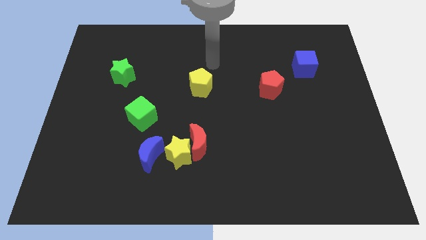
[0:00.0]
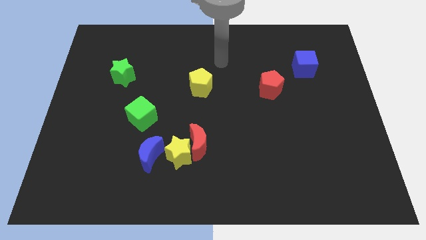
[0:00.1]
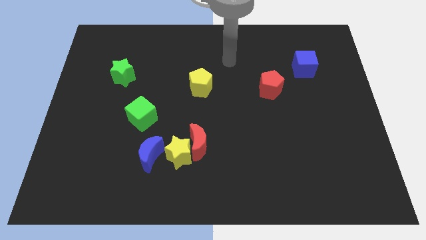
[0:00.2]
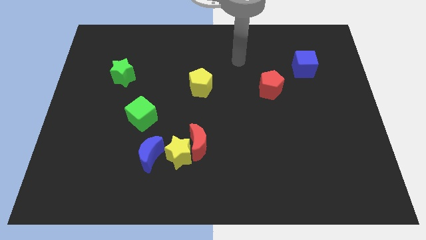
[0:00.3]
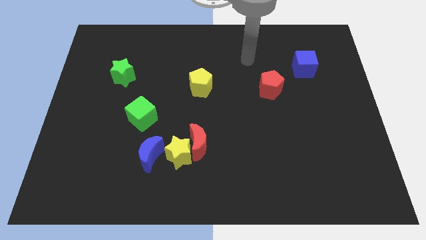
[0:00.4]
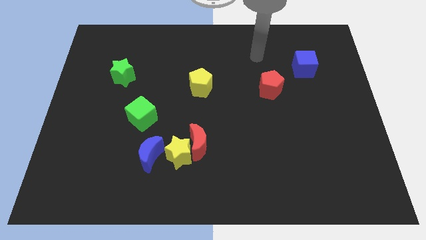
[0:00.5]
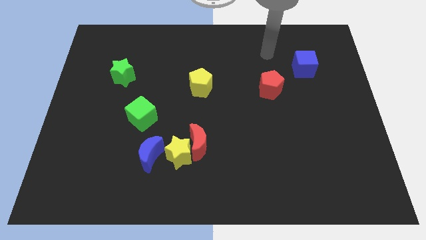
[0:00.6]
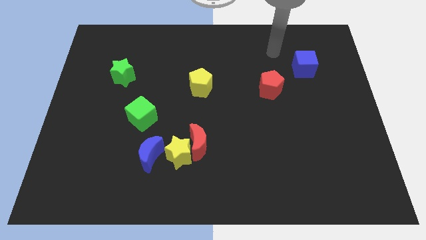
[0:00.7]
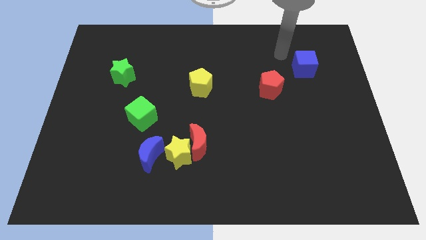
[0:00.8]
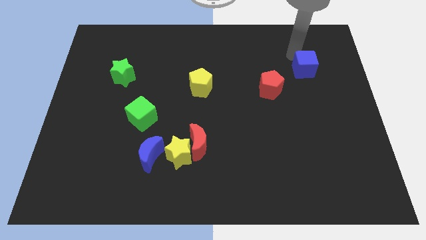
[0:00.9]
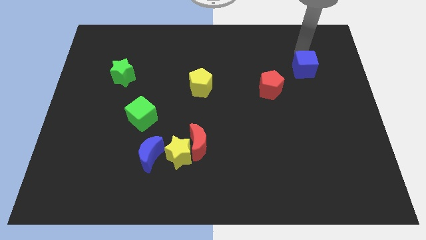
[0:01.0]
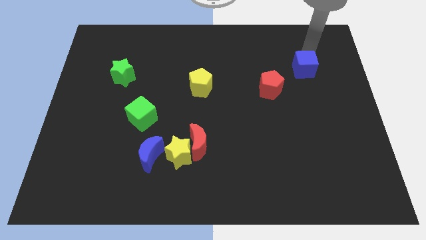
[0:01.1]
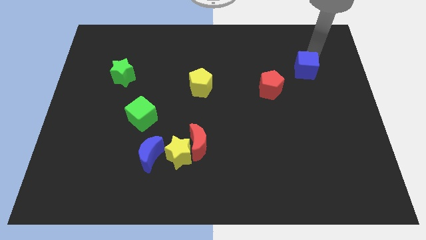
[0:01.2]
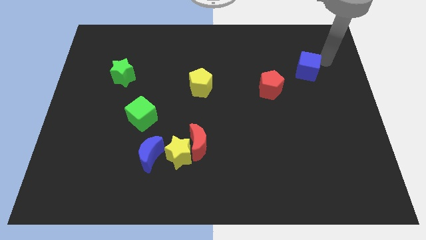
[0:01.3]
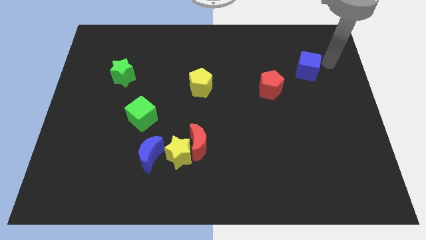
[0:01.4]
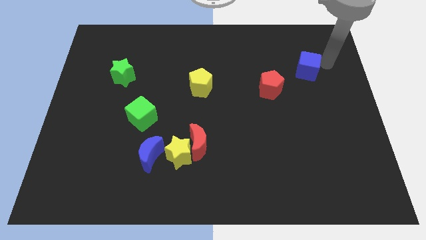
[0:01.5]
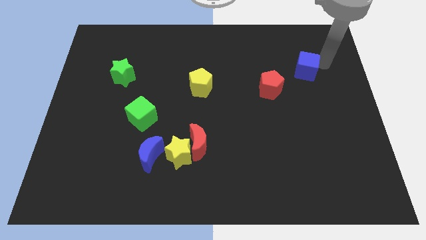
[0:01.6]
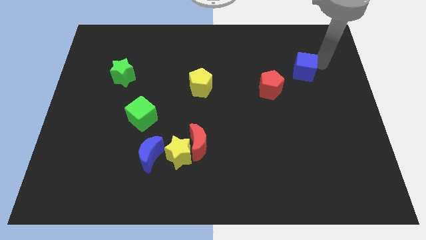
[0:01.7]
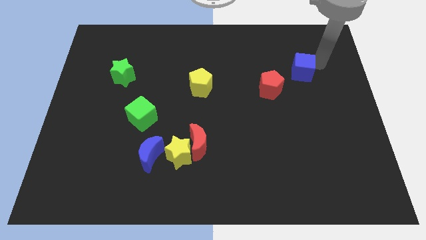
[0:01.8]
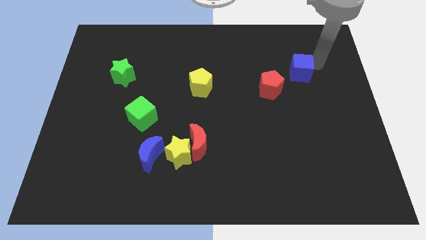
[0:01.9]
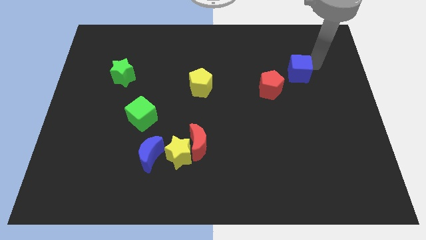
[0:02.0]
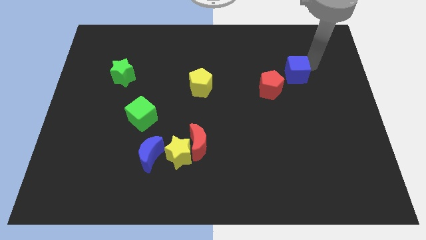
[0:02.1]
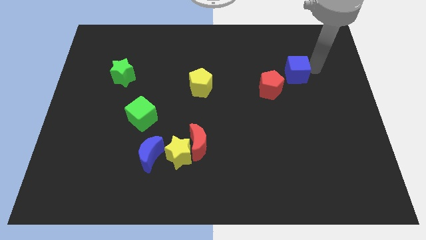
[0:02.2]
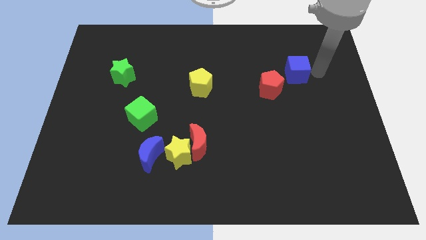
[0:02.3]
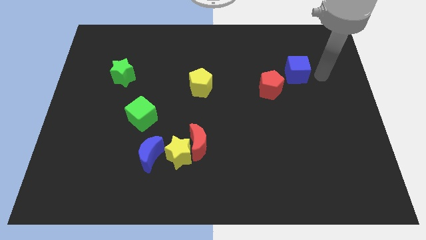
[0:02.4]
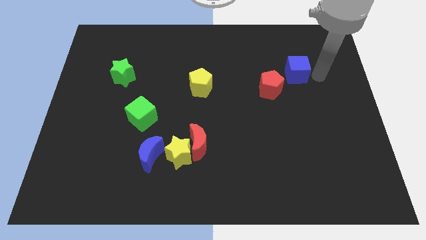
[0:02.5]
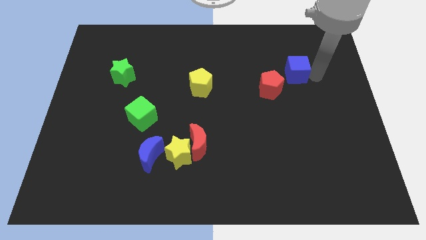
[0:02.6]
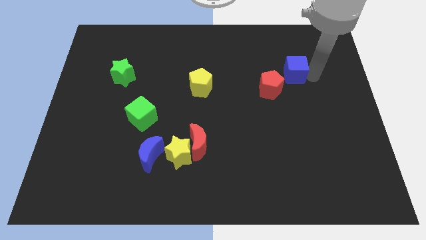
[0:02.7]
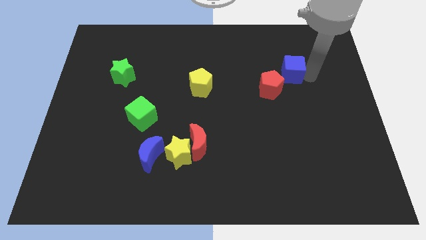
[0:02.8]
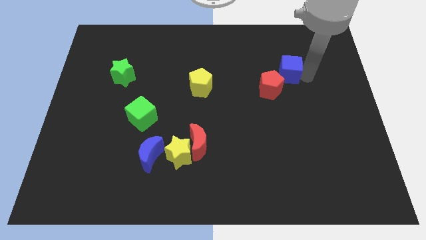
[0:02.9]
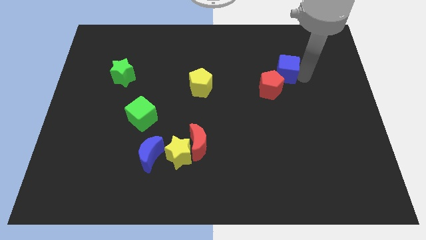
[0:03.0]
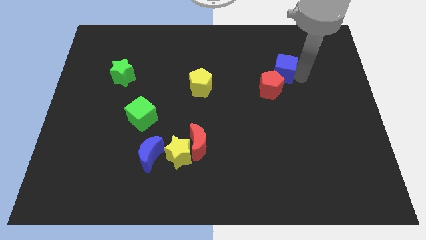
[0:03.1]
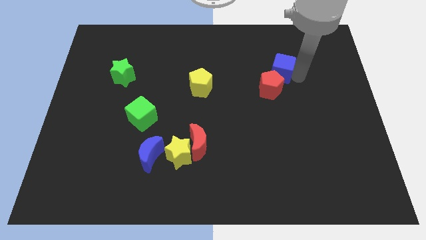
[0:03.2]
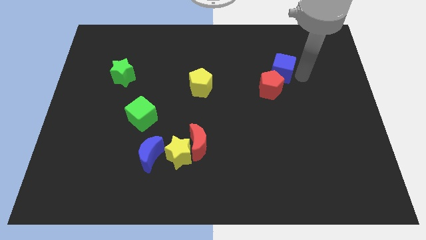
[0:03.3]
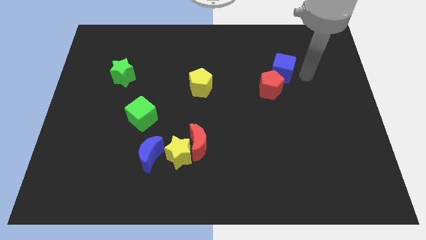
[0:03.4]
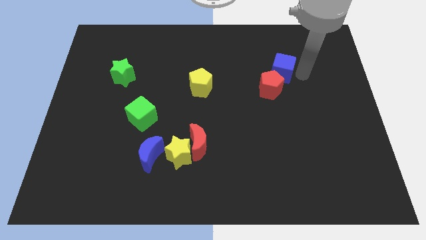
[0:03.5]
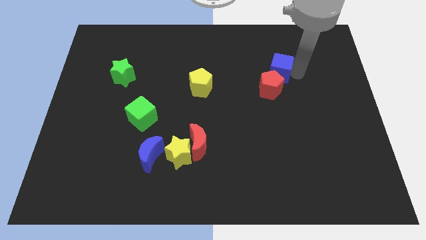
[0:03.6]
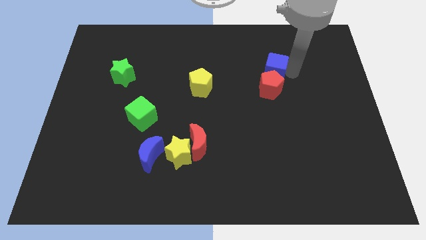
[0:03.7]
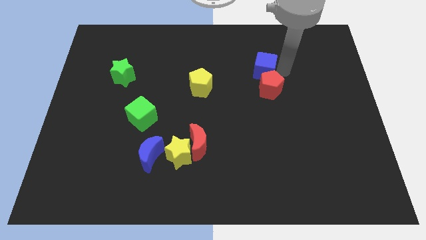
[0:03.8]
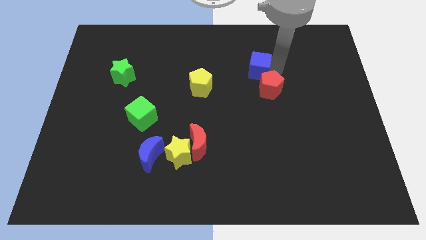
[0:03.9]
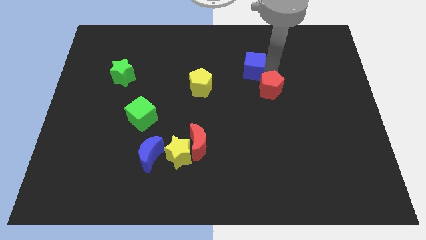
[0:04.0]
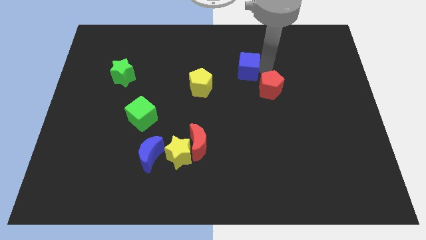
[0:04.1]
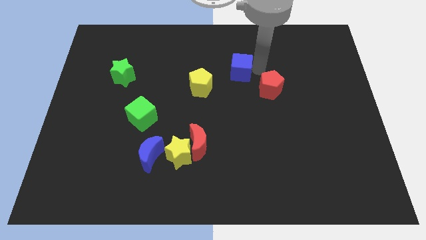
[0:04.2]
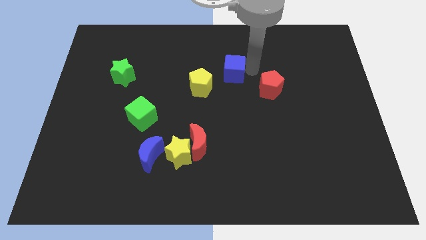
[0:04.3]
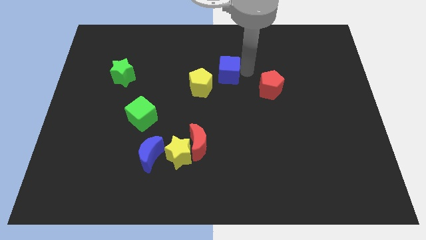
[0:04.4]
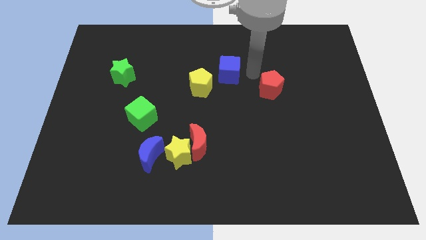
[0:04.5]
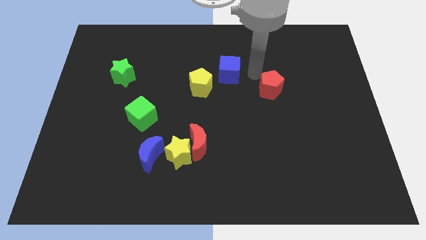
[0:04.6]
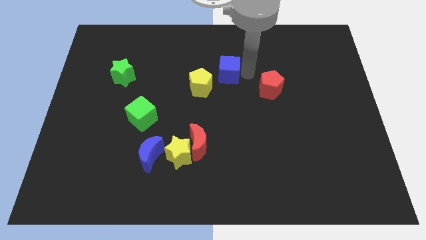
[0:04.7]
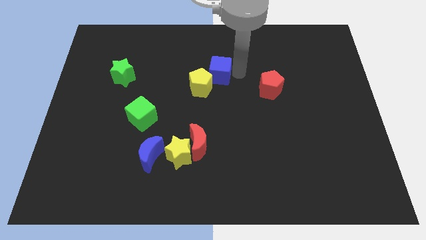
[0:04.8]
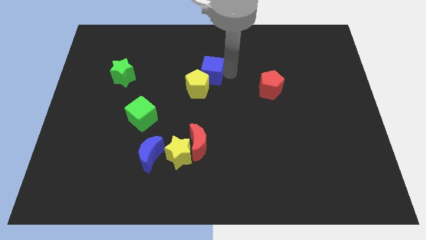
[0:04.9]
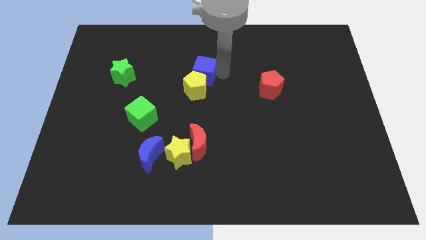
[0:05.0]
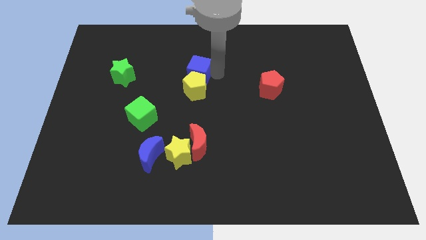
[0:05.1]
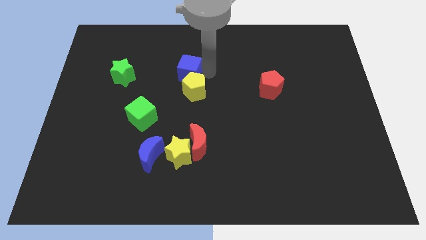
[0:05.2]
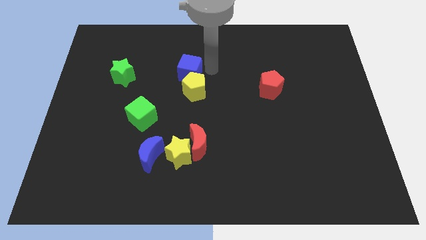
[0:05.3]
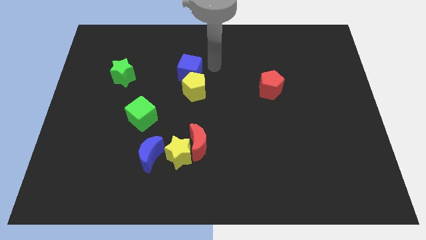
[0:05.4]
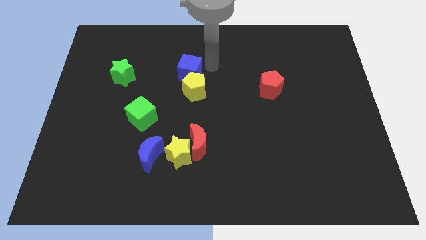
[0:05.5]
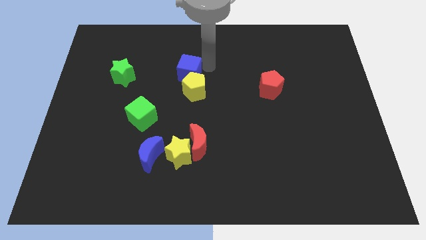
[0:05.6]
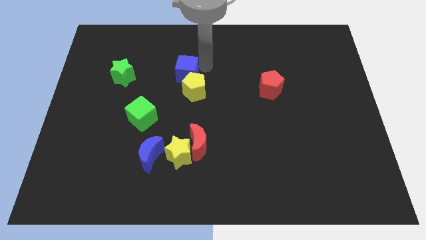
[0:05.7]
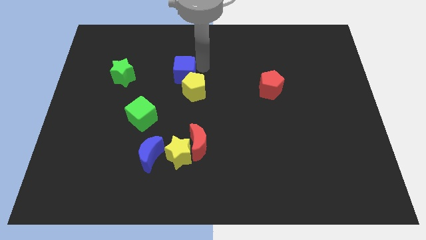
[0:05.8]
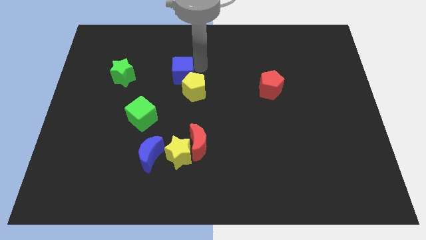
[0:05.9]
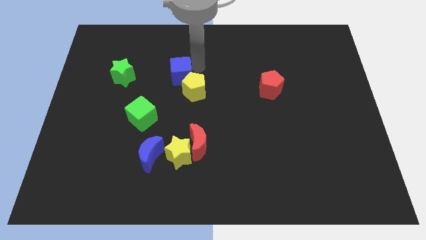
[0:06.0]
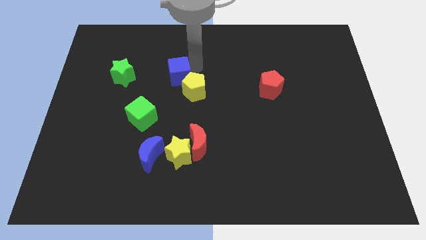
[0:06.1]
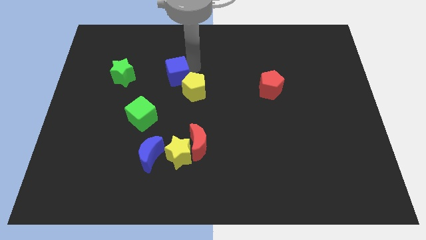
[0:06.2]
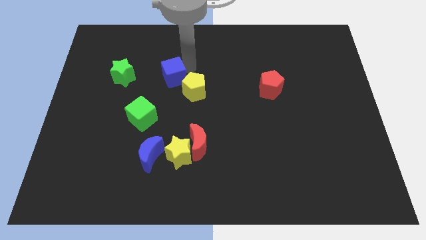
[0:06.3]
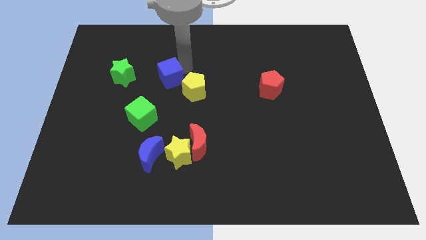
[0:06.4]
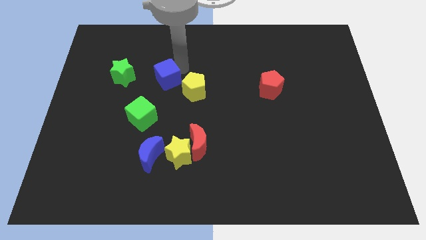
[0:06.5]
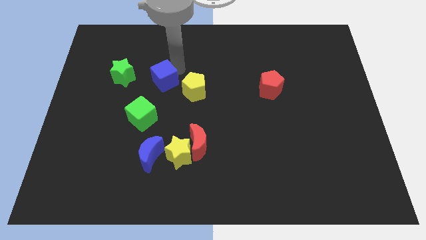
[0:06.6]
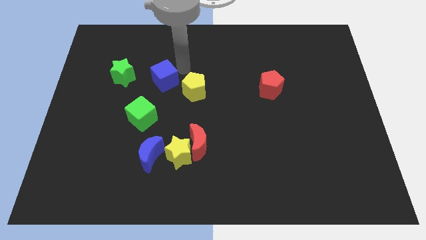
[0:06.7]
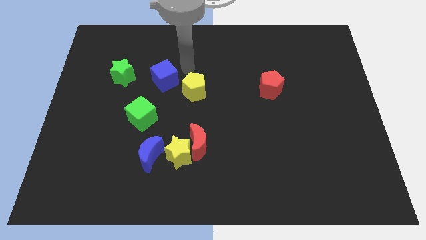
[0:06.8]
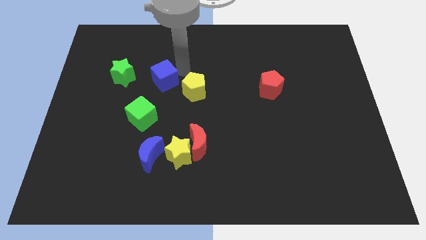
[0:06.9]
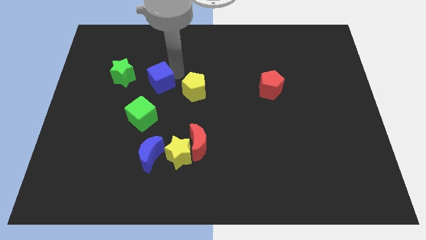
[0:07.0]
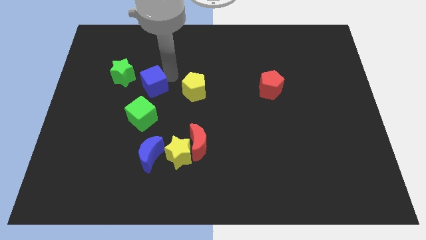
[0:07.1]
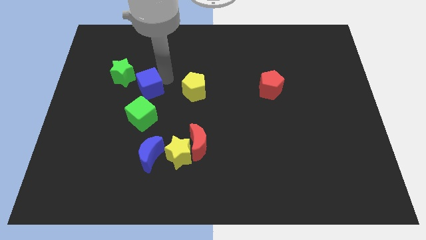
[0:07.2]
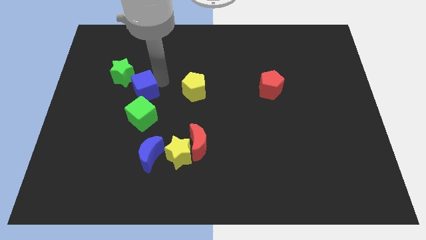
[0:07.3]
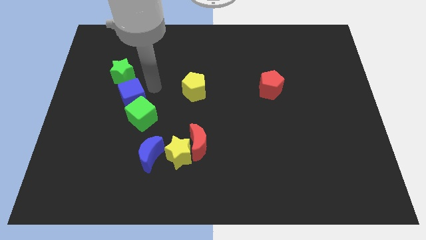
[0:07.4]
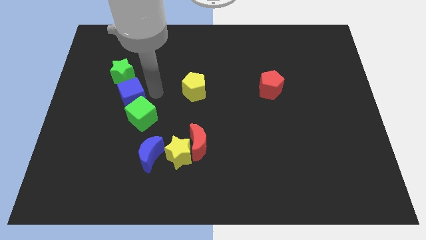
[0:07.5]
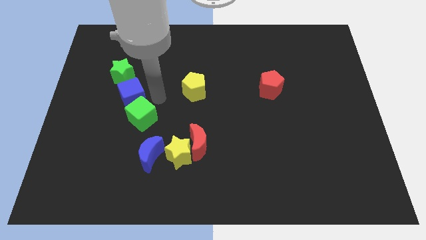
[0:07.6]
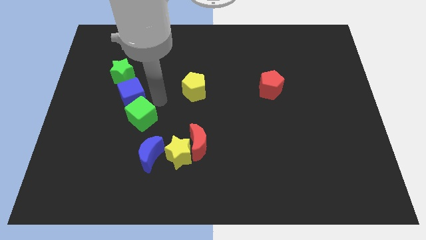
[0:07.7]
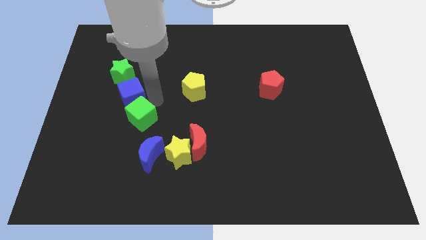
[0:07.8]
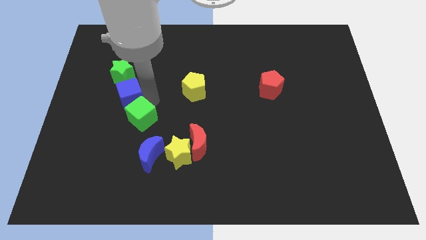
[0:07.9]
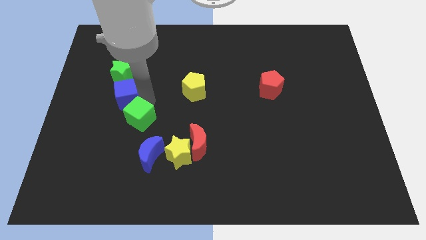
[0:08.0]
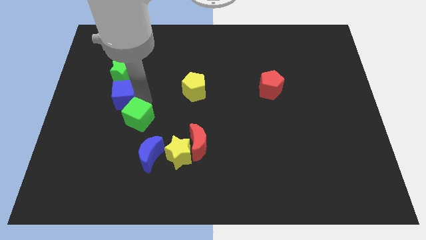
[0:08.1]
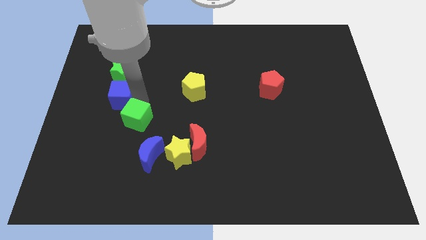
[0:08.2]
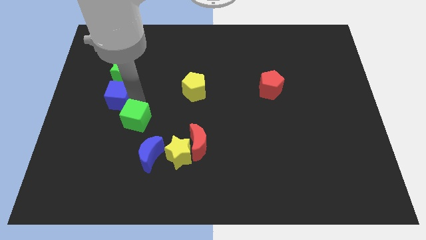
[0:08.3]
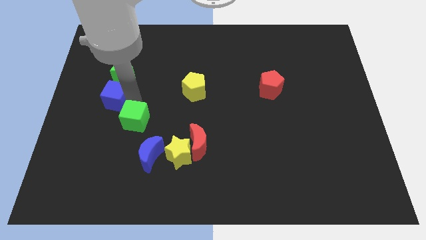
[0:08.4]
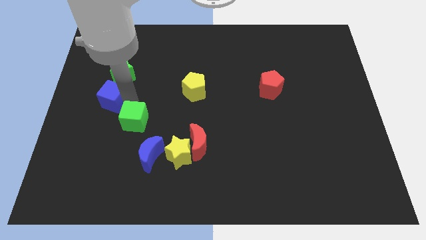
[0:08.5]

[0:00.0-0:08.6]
slide the blue cube to the bottom left of the green star
